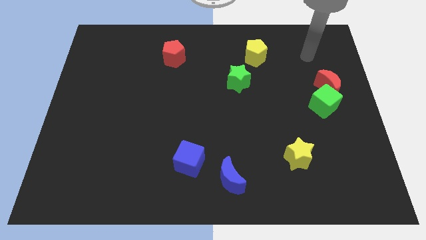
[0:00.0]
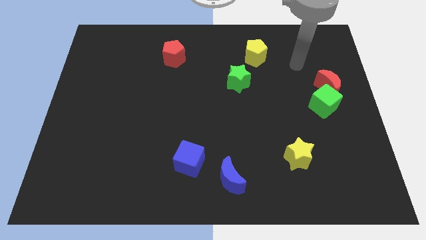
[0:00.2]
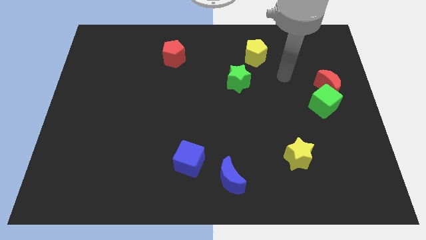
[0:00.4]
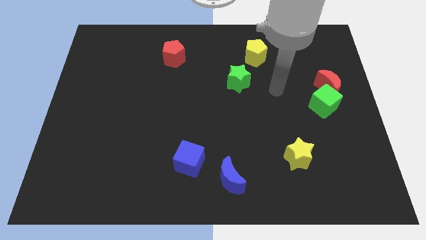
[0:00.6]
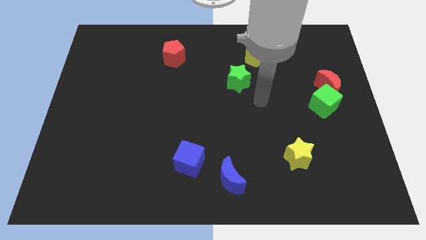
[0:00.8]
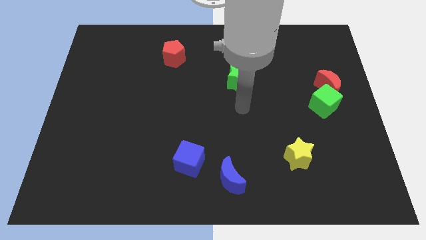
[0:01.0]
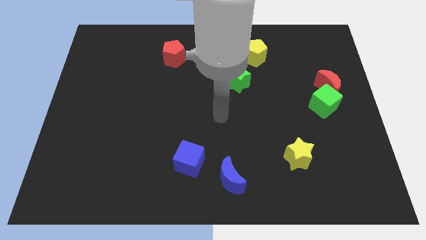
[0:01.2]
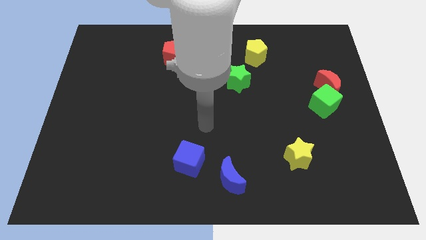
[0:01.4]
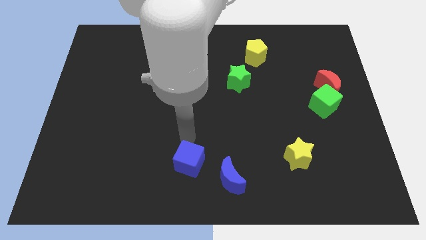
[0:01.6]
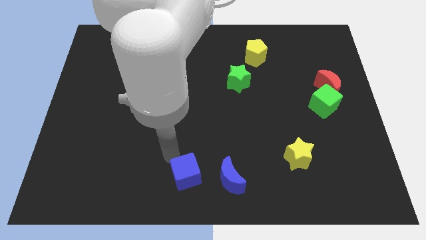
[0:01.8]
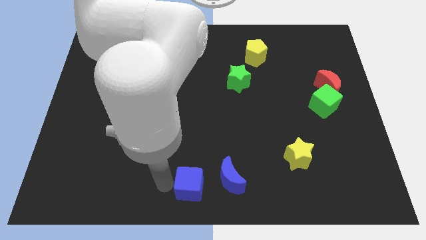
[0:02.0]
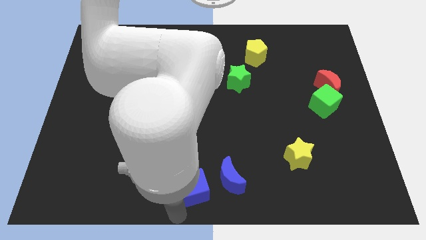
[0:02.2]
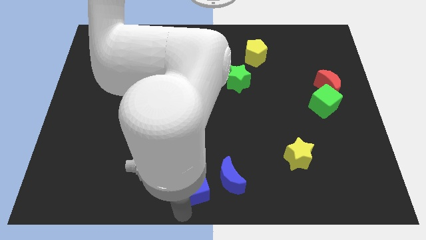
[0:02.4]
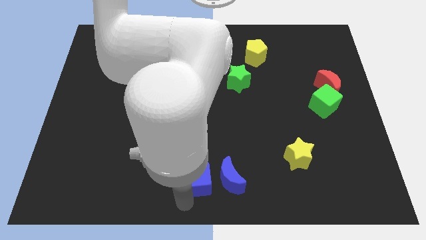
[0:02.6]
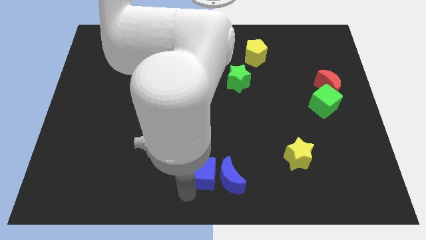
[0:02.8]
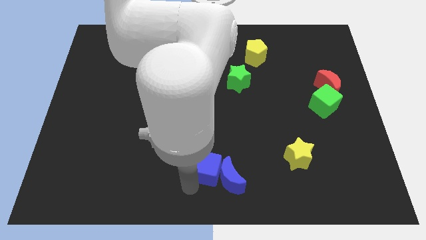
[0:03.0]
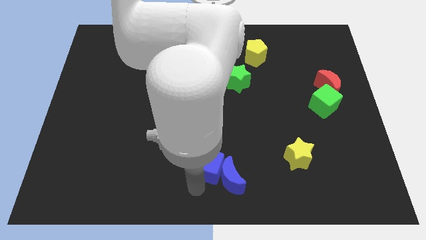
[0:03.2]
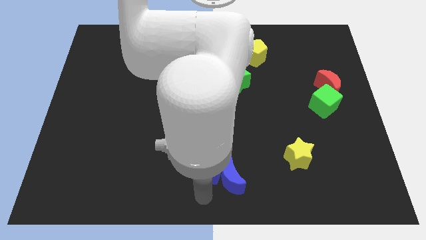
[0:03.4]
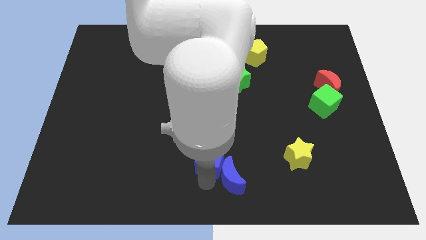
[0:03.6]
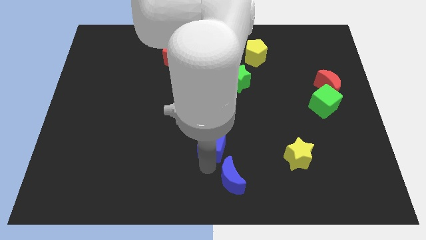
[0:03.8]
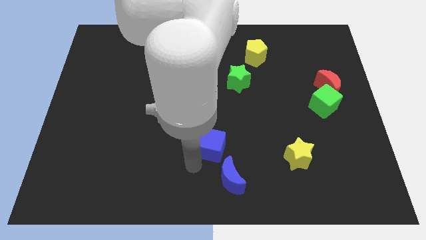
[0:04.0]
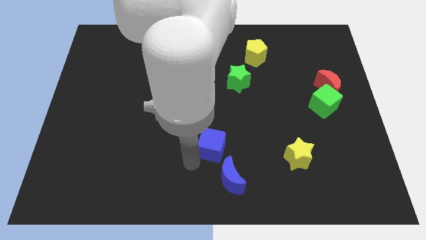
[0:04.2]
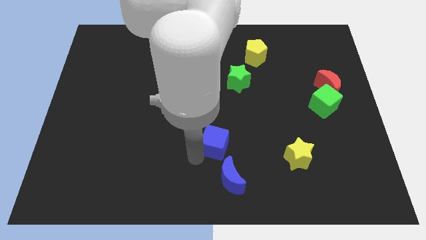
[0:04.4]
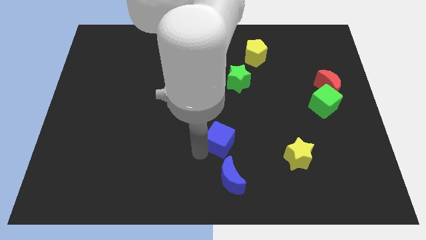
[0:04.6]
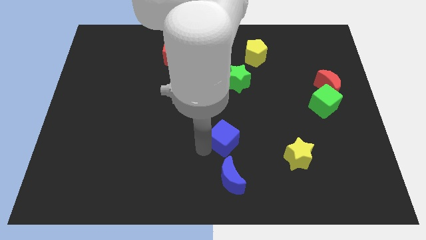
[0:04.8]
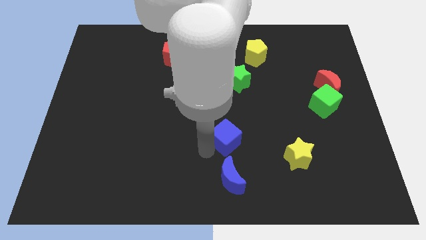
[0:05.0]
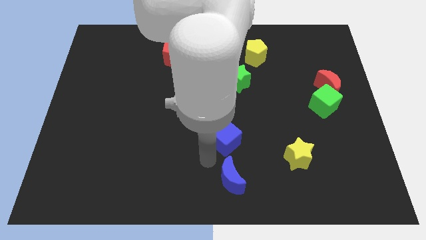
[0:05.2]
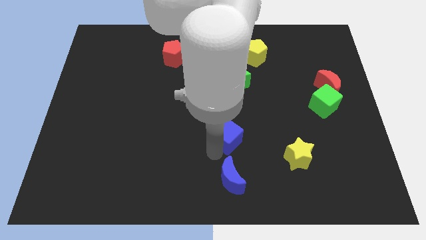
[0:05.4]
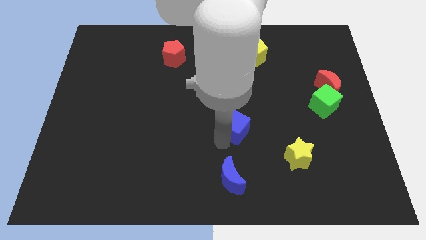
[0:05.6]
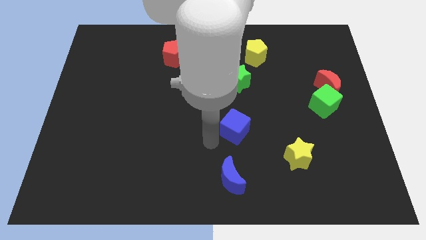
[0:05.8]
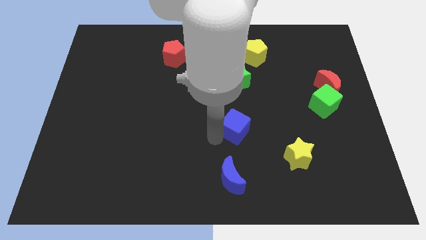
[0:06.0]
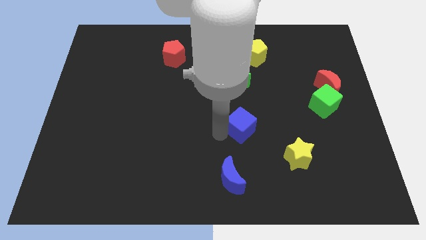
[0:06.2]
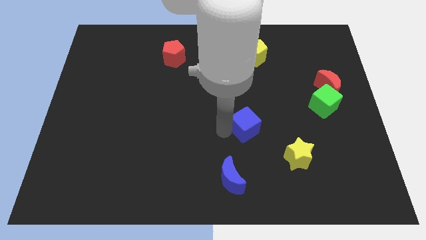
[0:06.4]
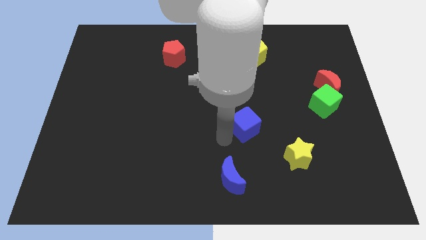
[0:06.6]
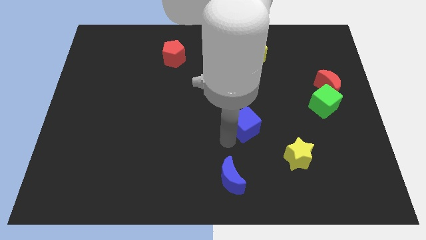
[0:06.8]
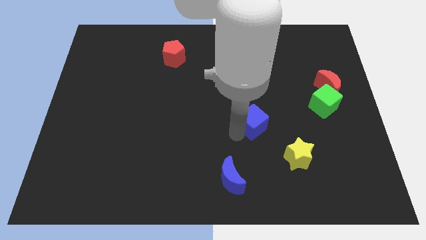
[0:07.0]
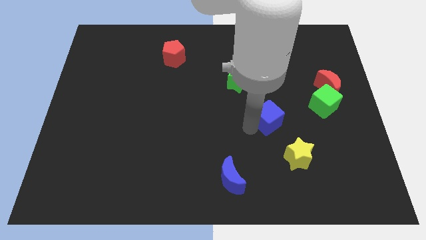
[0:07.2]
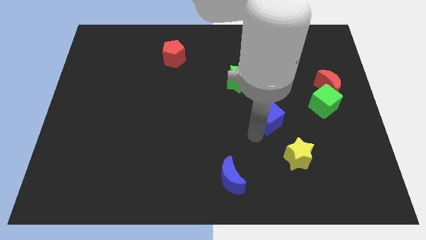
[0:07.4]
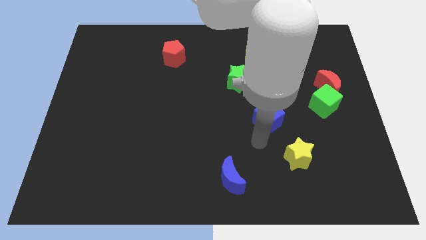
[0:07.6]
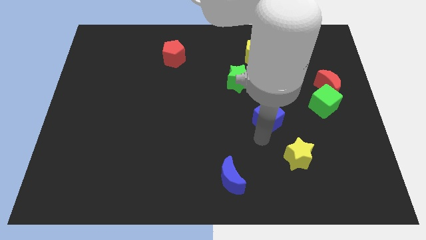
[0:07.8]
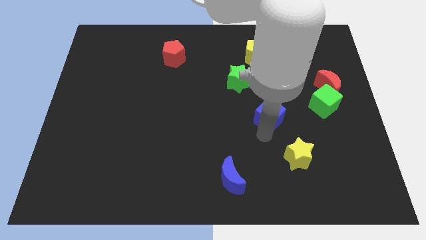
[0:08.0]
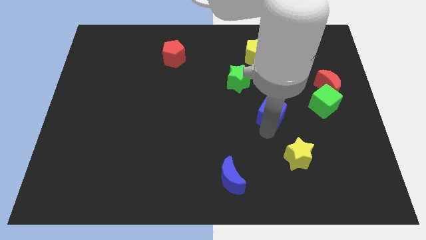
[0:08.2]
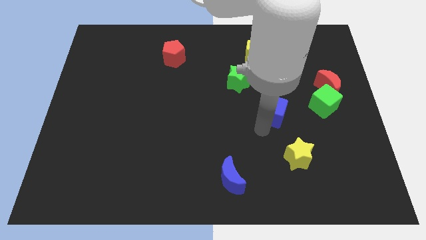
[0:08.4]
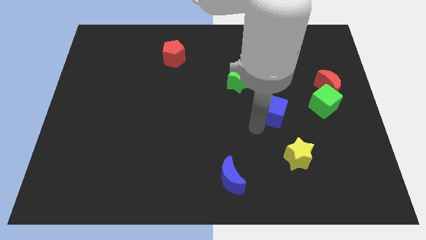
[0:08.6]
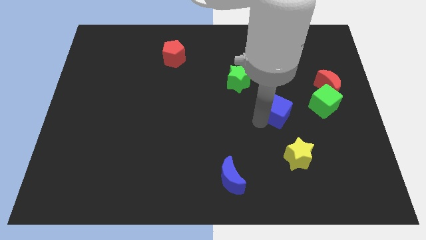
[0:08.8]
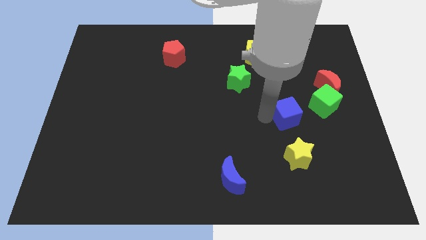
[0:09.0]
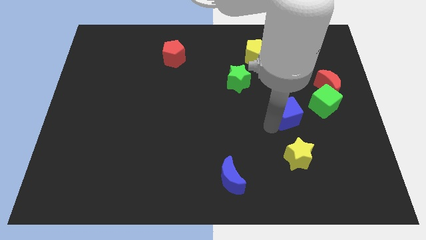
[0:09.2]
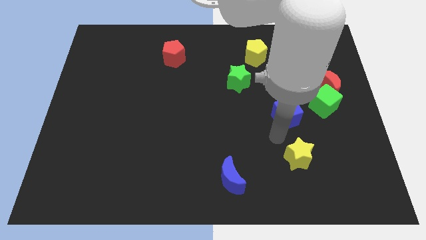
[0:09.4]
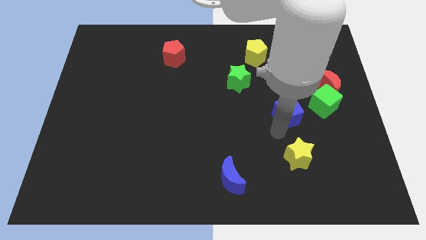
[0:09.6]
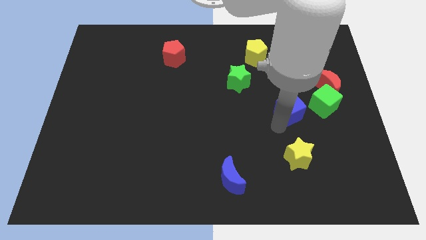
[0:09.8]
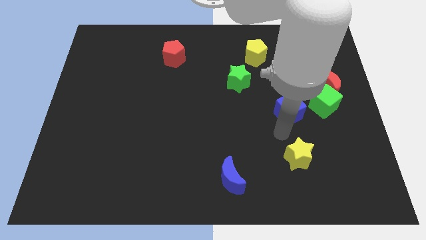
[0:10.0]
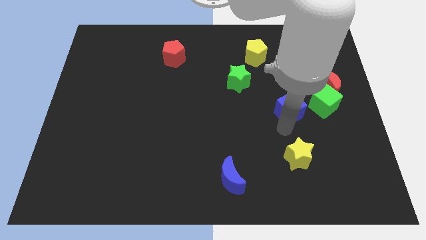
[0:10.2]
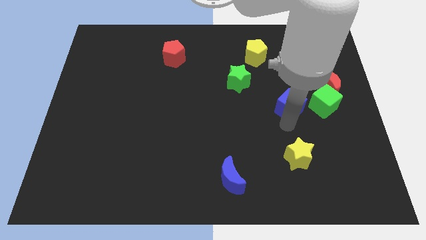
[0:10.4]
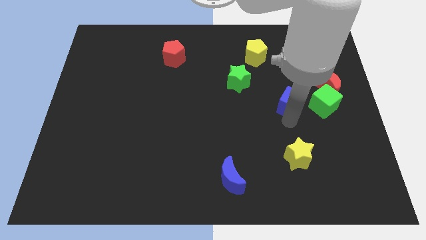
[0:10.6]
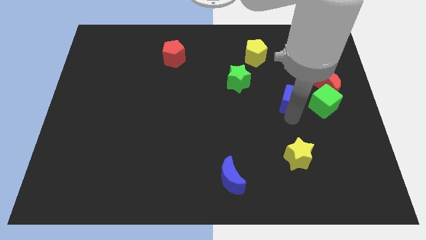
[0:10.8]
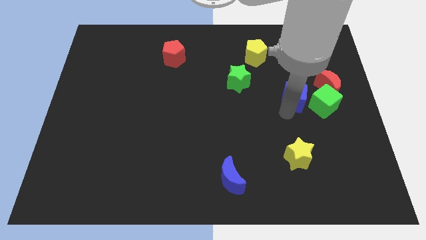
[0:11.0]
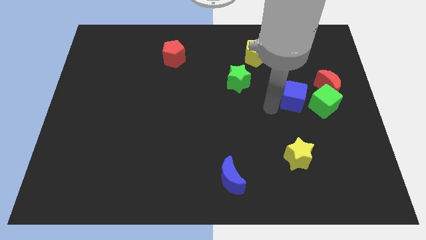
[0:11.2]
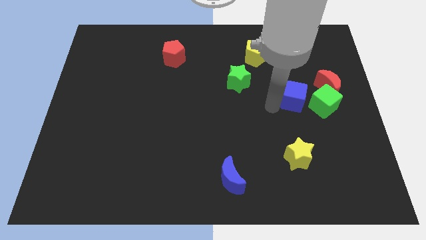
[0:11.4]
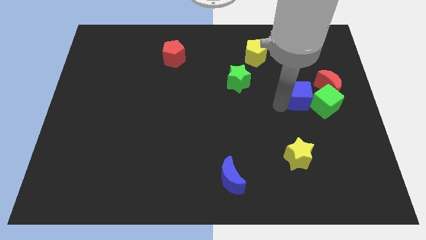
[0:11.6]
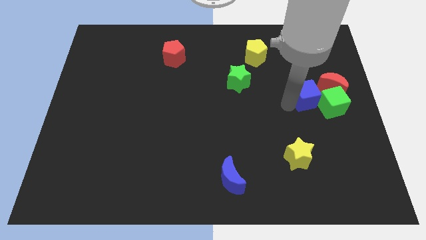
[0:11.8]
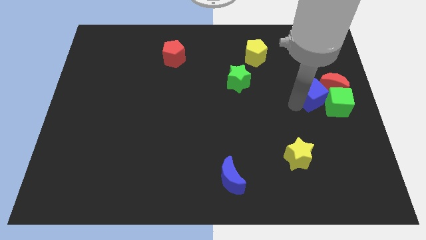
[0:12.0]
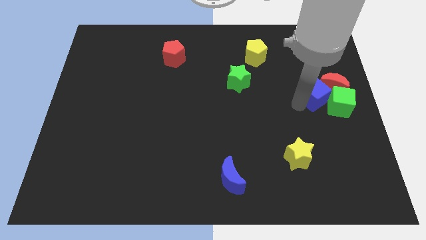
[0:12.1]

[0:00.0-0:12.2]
slide the blue cube next to the red moon

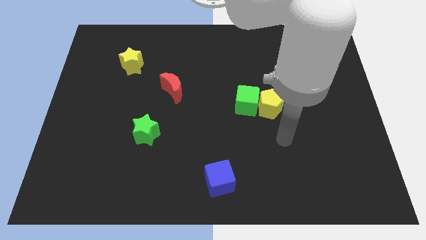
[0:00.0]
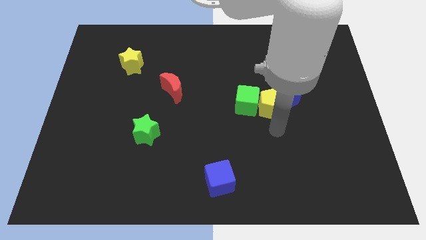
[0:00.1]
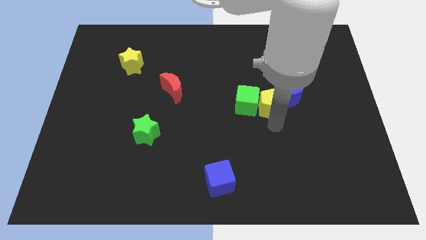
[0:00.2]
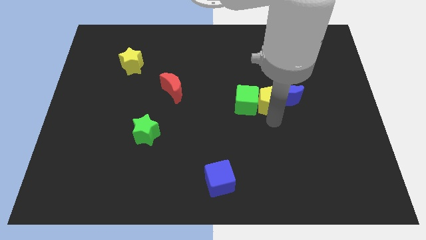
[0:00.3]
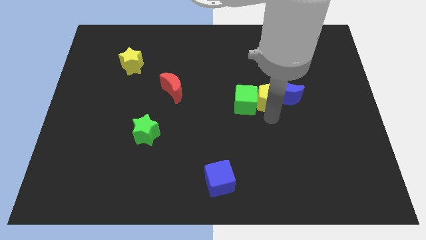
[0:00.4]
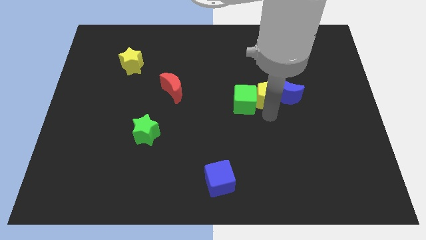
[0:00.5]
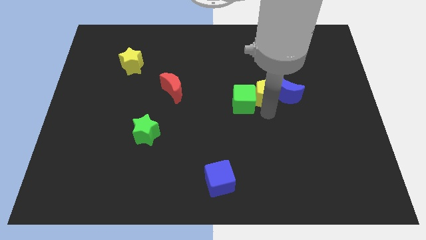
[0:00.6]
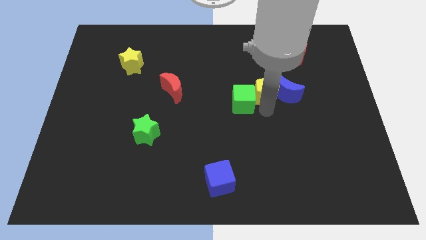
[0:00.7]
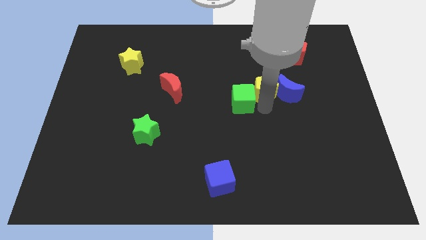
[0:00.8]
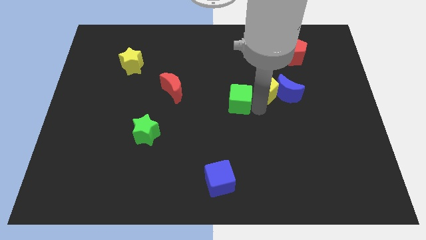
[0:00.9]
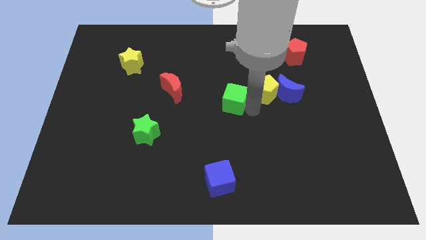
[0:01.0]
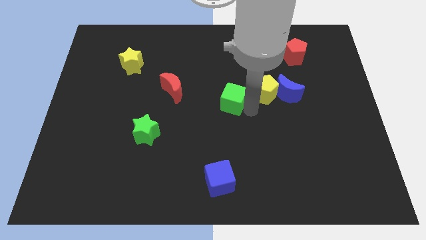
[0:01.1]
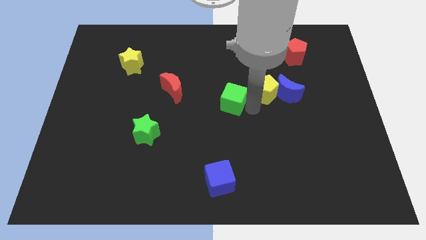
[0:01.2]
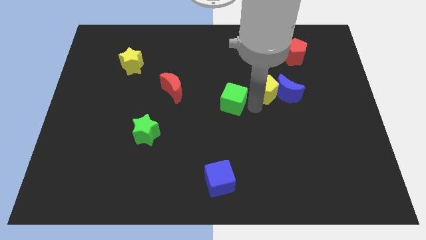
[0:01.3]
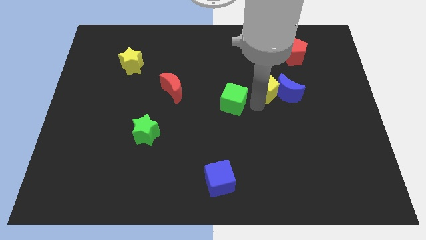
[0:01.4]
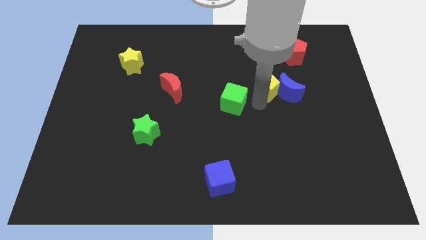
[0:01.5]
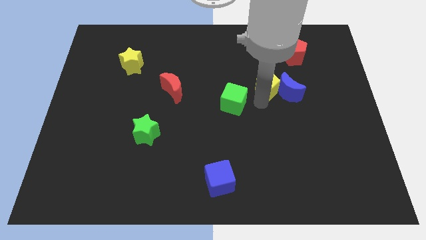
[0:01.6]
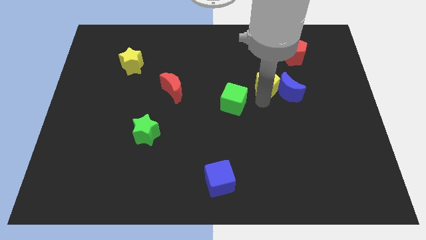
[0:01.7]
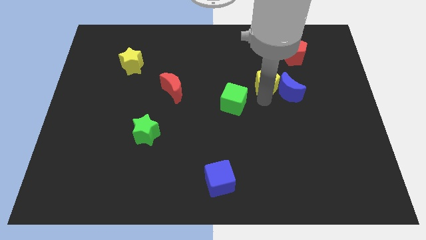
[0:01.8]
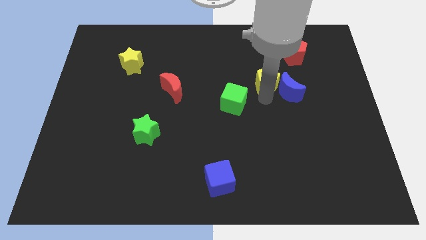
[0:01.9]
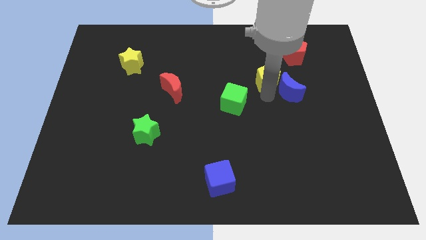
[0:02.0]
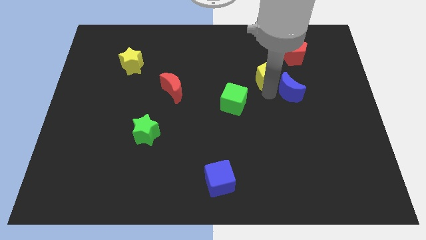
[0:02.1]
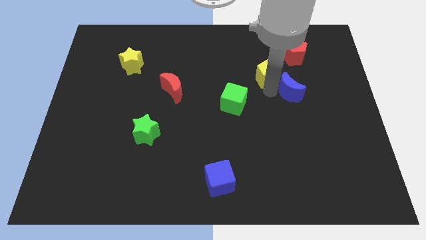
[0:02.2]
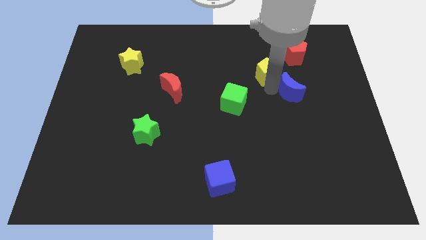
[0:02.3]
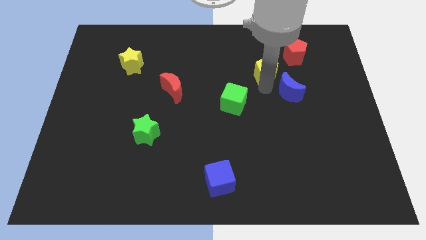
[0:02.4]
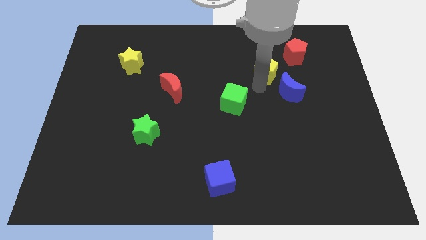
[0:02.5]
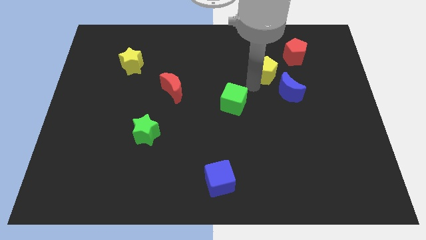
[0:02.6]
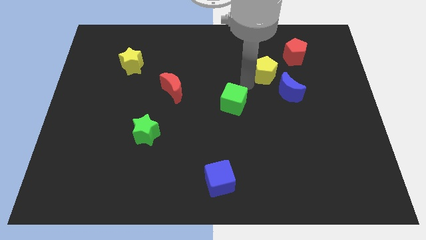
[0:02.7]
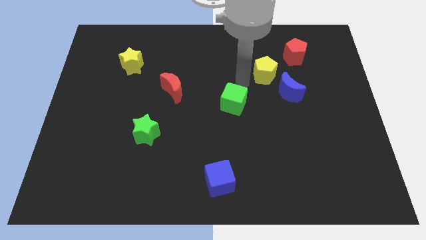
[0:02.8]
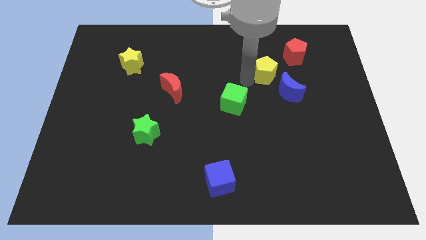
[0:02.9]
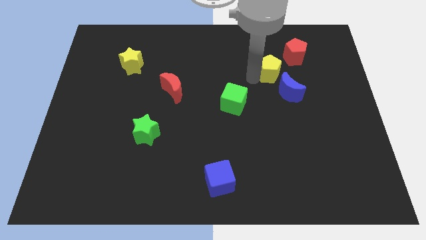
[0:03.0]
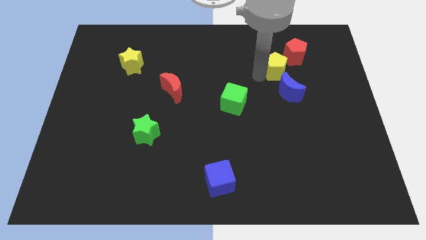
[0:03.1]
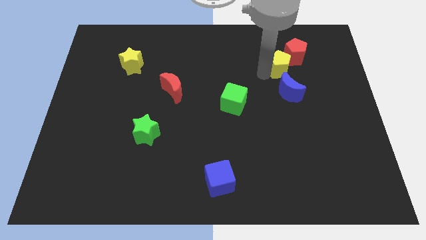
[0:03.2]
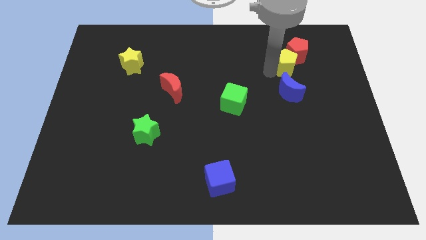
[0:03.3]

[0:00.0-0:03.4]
push the yellow pentagon to the red pentagon
